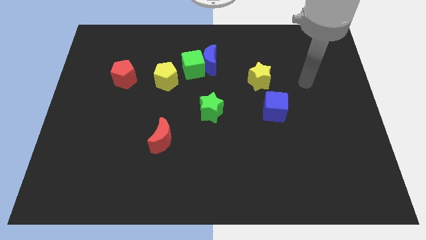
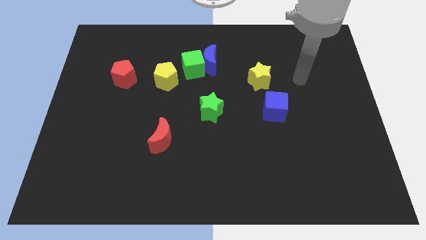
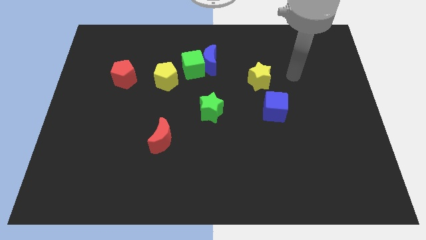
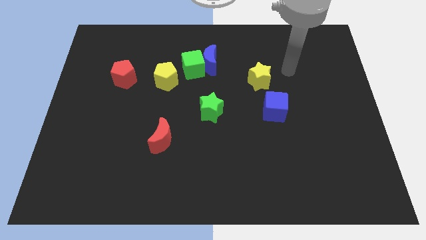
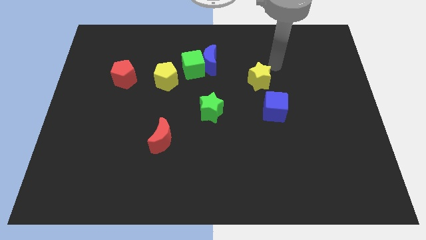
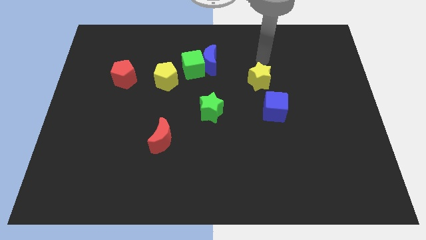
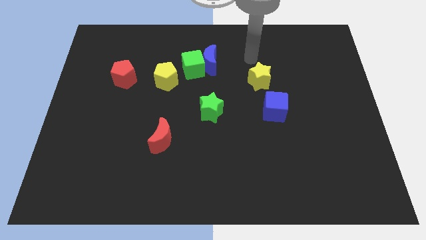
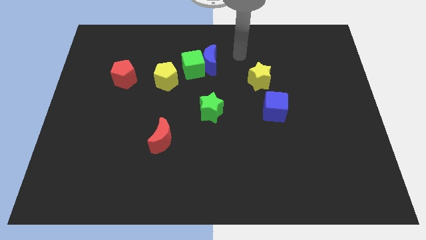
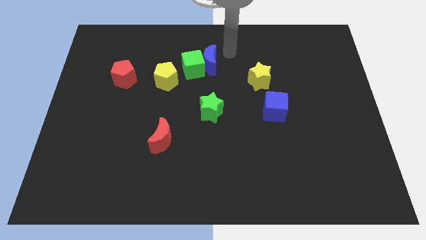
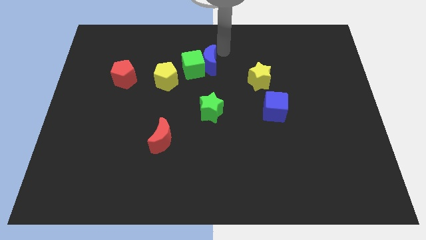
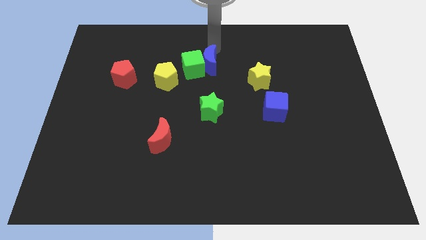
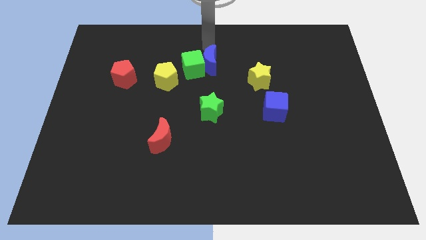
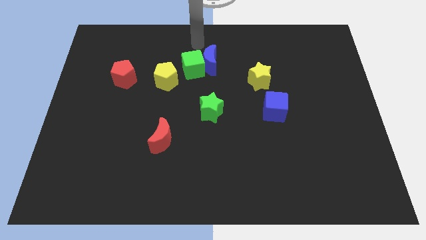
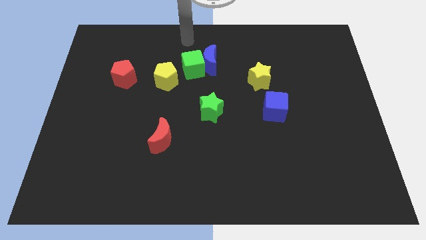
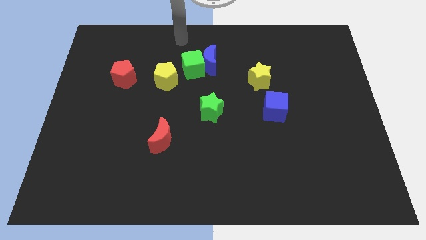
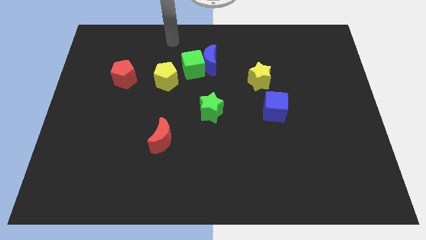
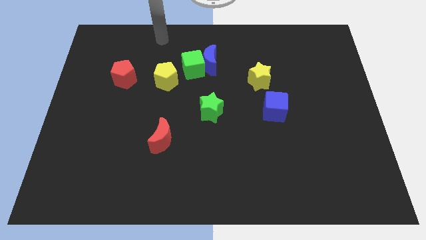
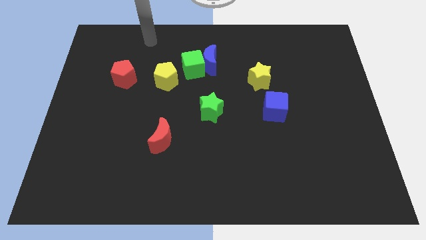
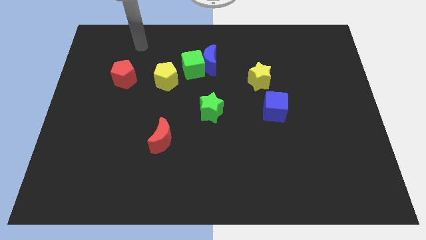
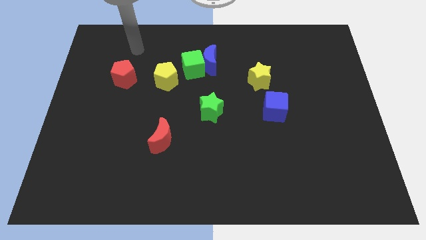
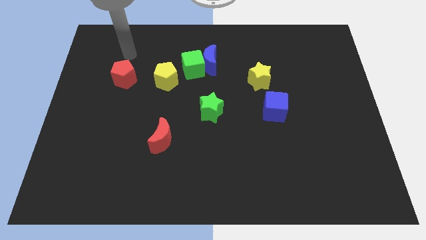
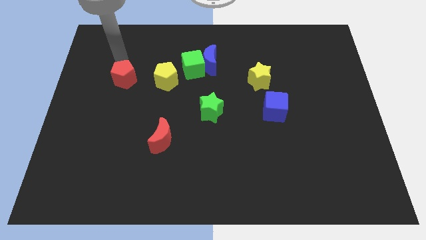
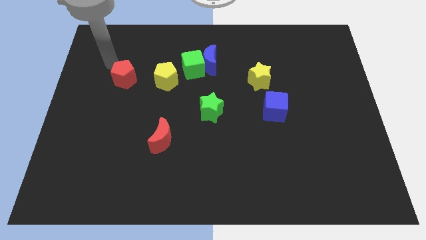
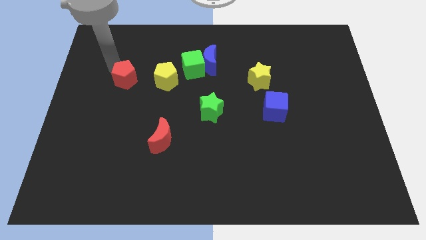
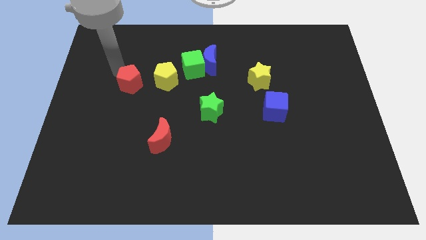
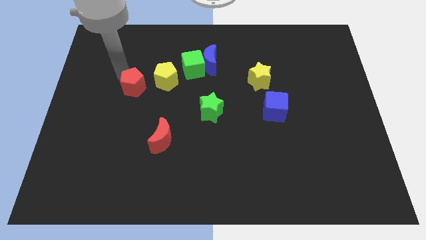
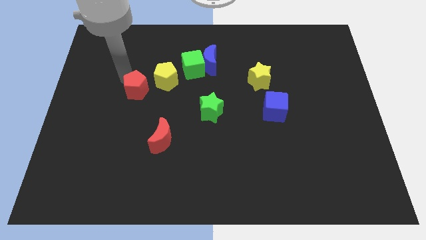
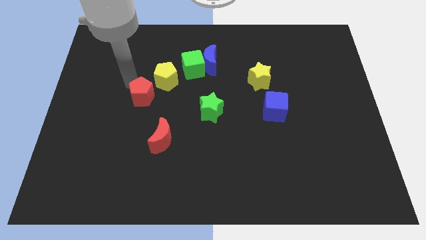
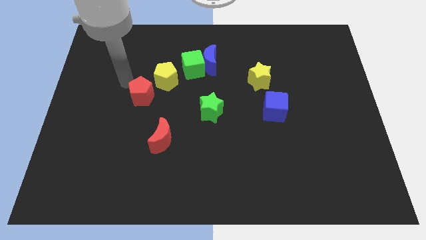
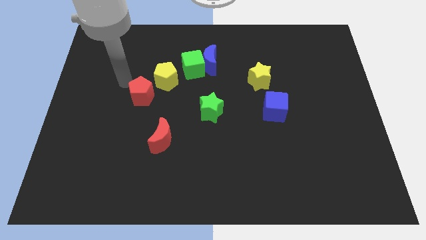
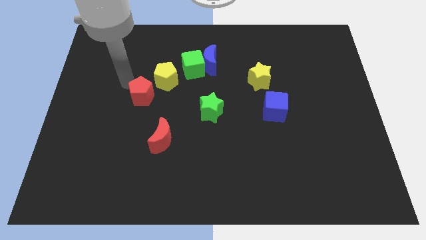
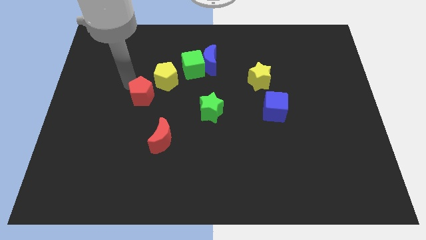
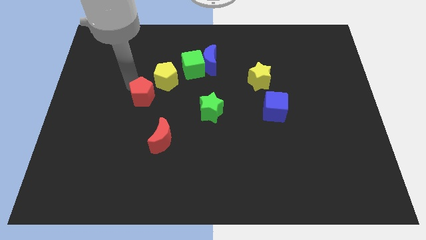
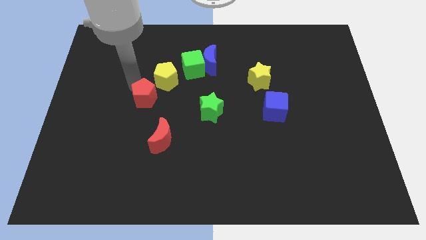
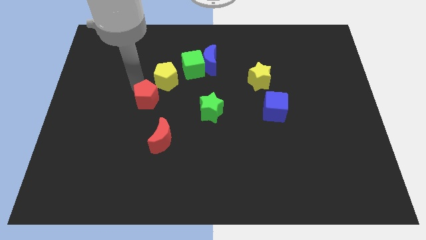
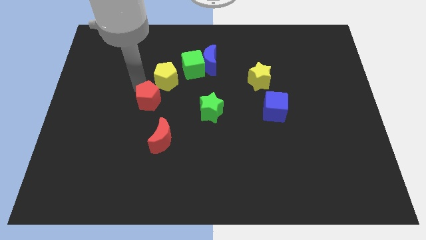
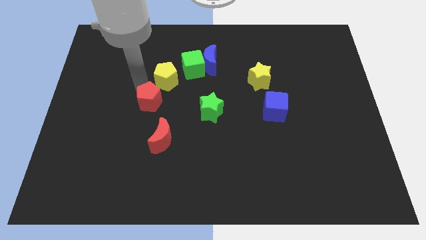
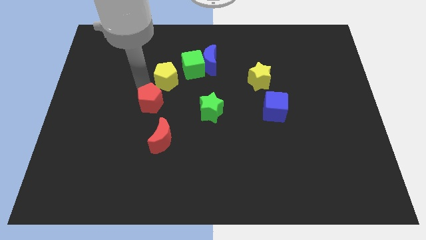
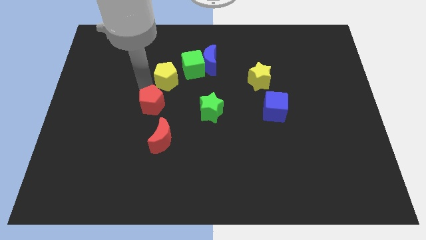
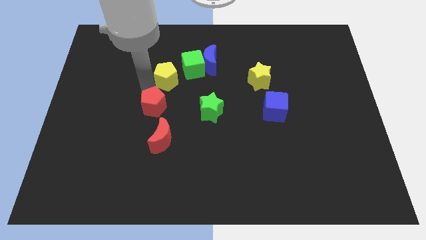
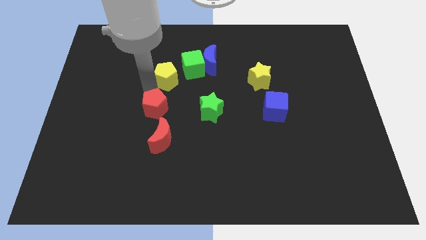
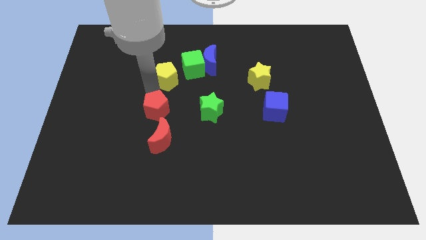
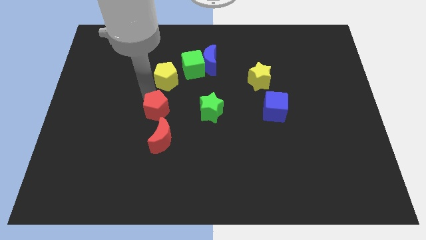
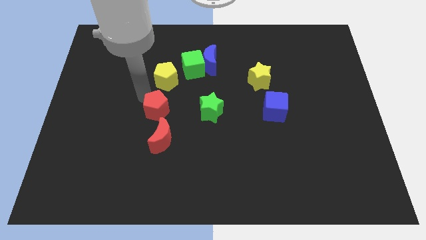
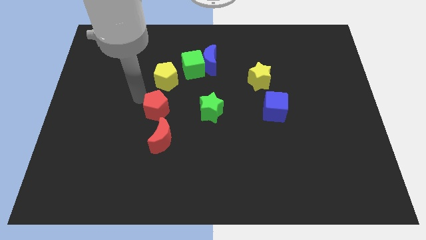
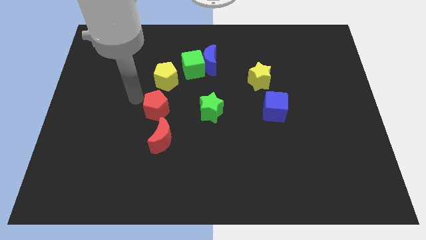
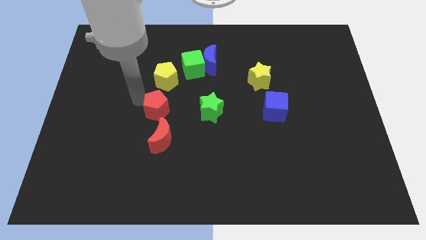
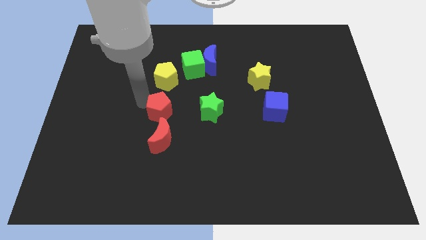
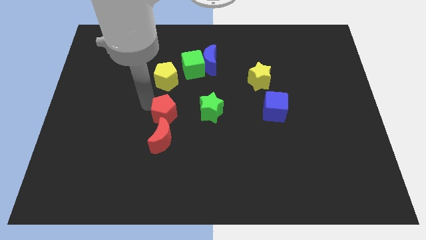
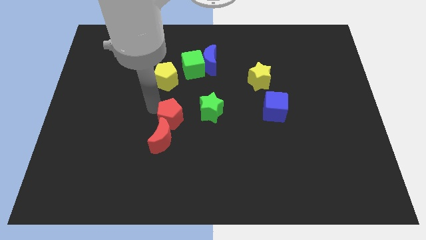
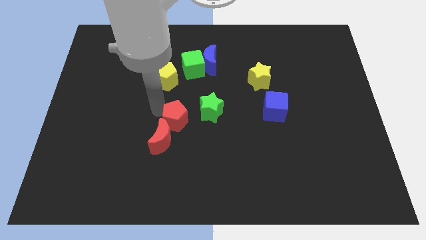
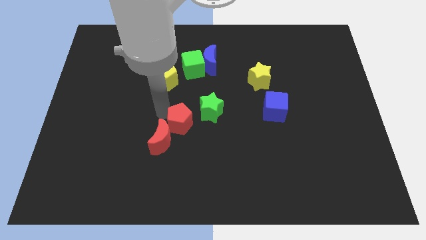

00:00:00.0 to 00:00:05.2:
push the red pentagon downwards and right

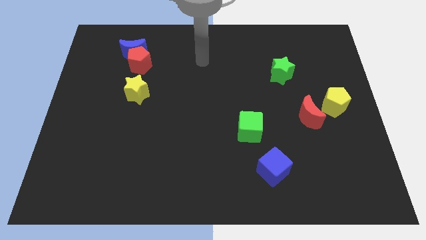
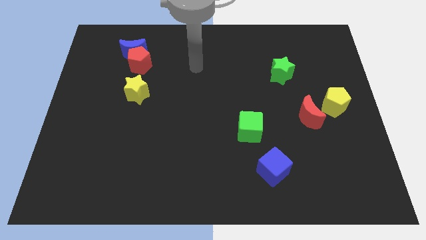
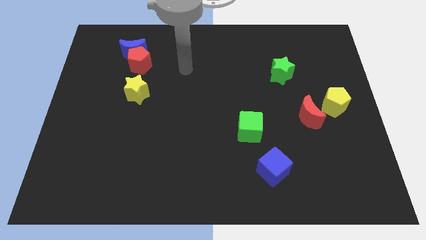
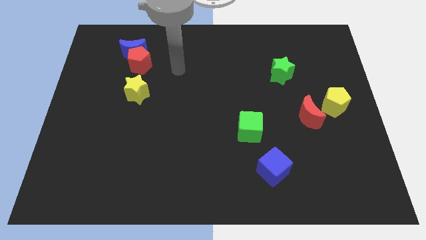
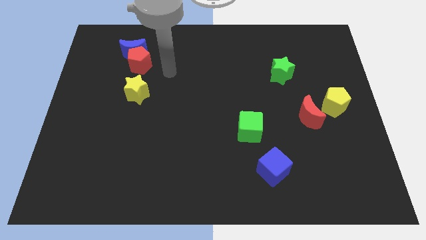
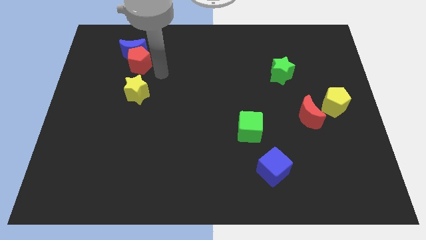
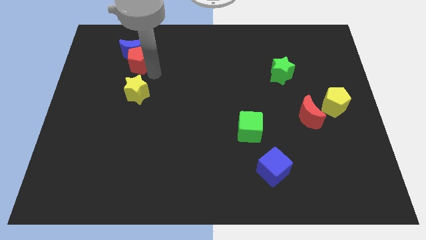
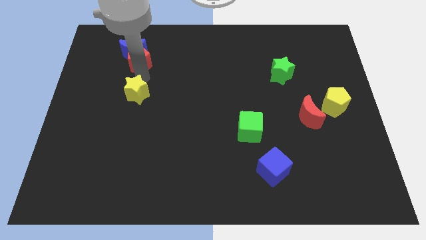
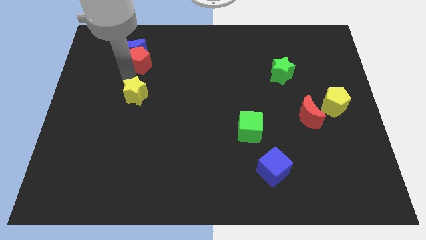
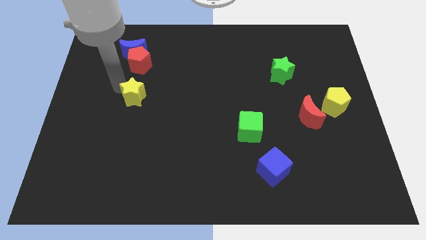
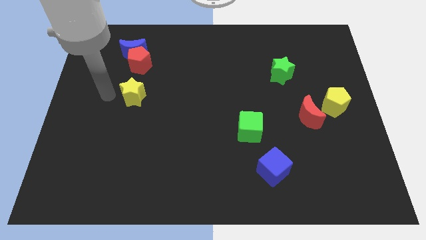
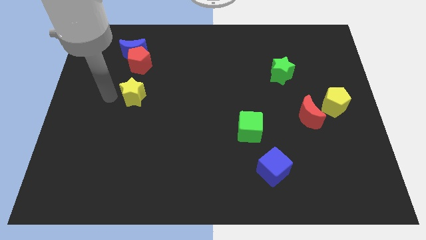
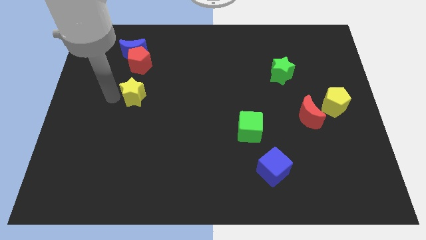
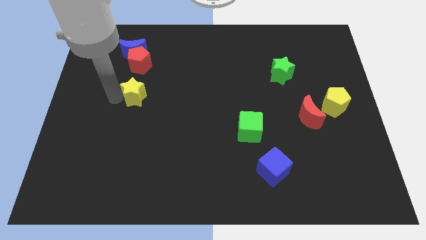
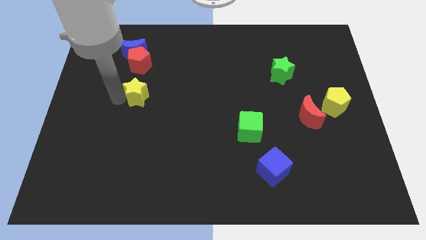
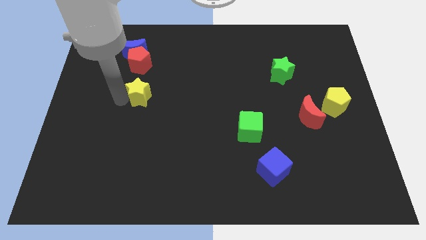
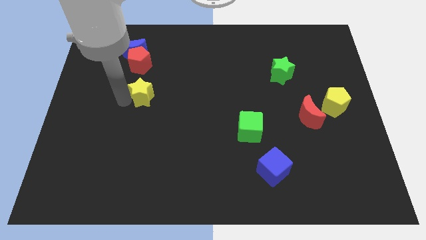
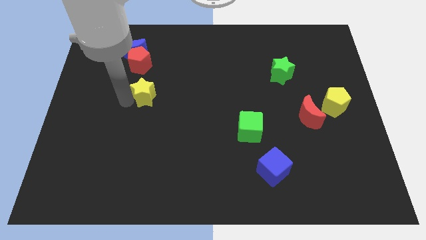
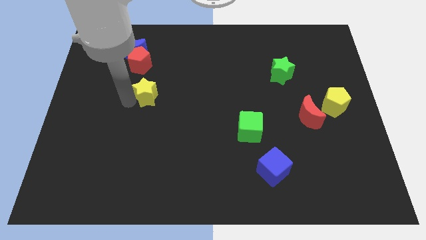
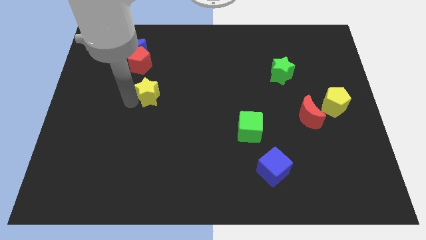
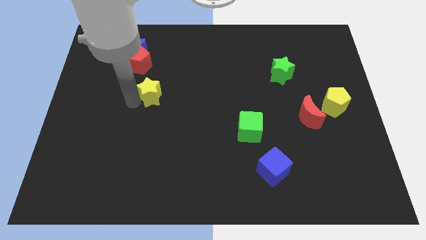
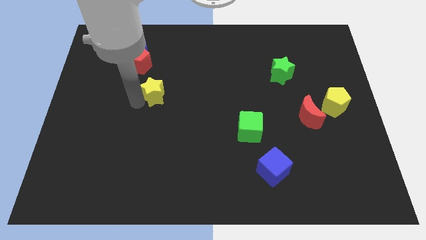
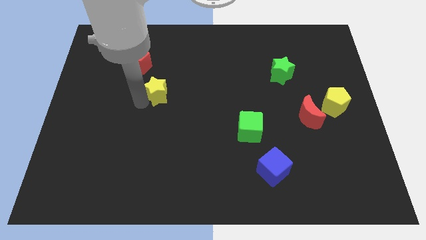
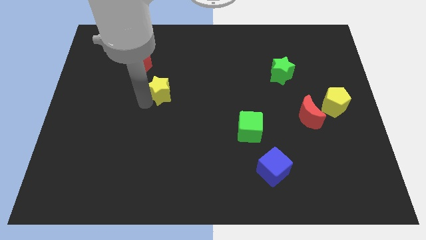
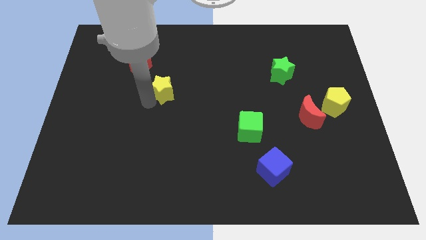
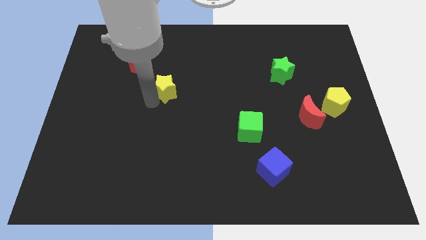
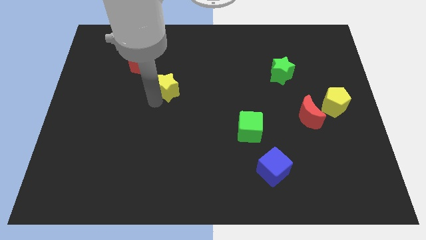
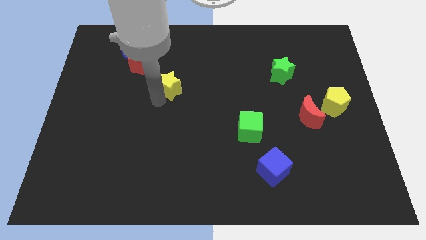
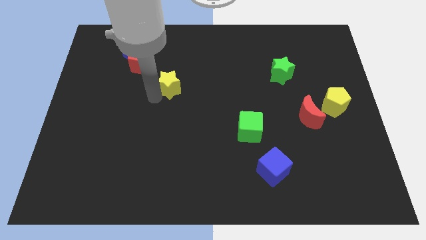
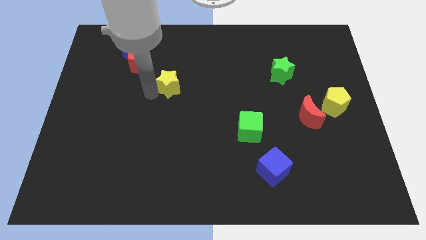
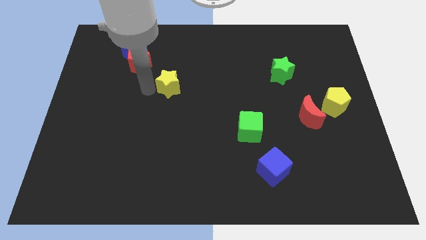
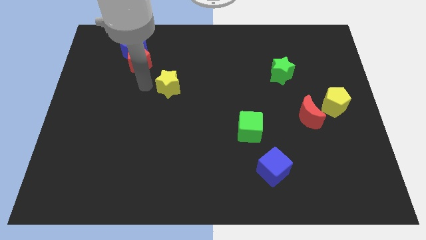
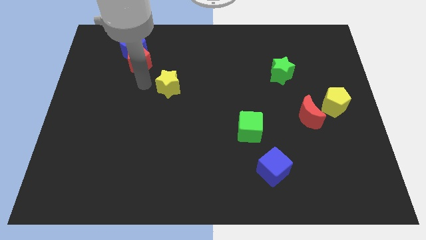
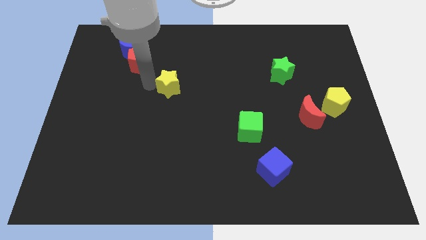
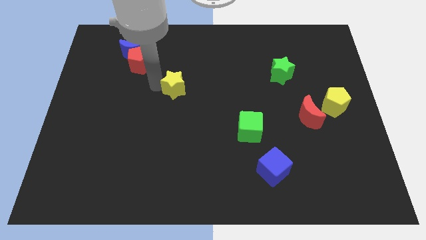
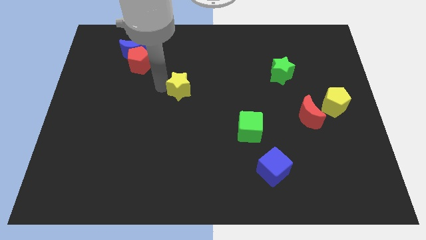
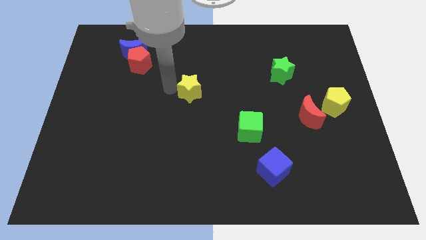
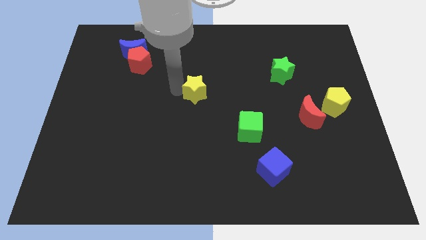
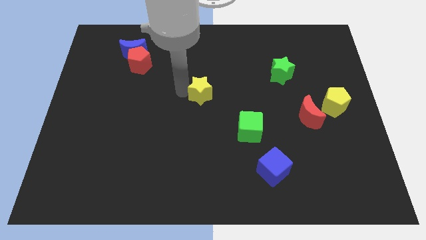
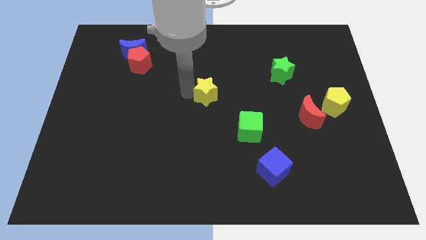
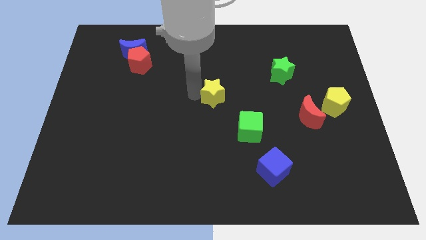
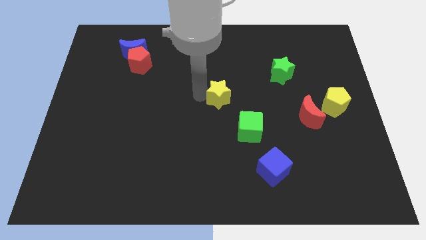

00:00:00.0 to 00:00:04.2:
slide the yellow star to the right
